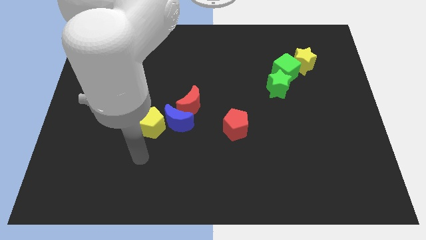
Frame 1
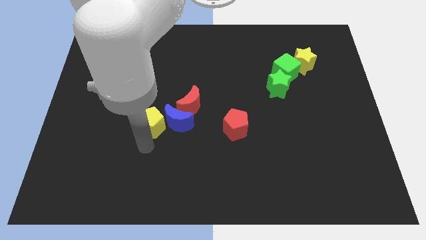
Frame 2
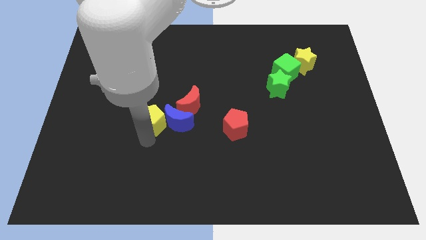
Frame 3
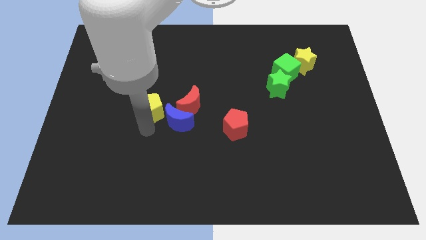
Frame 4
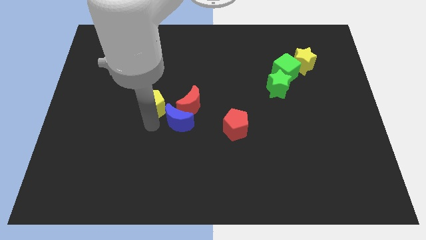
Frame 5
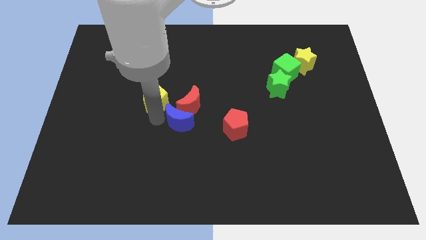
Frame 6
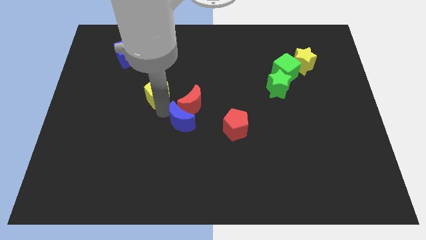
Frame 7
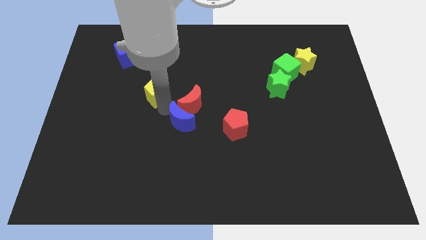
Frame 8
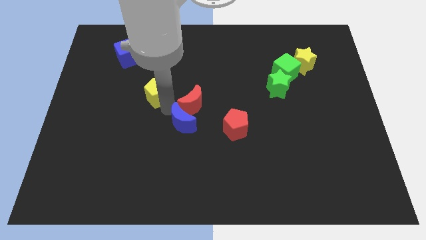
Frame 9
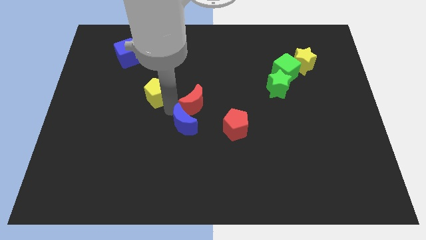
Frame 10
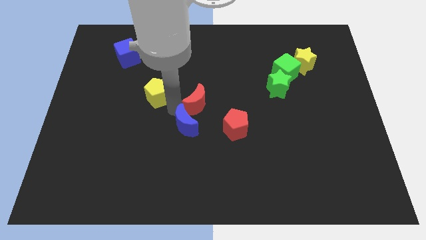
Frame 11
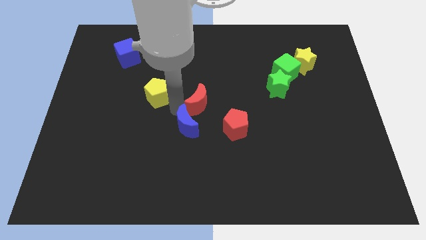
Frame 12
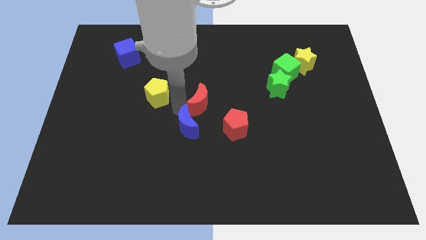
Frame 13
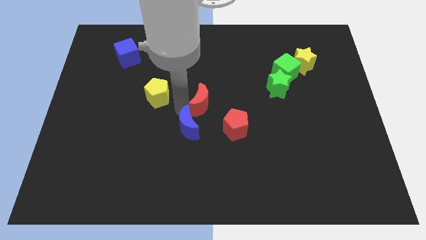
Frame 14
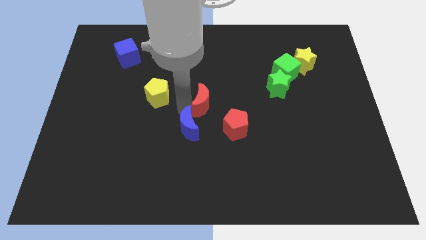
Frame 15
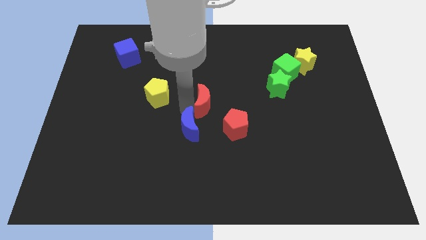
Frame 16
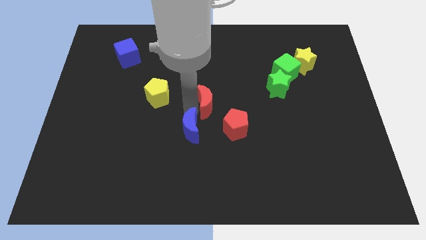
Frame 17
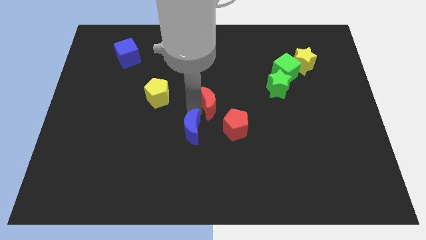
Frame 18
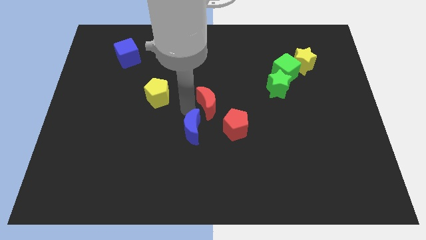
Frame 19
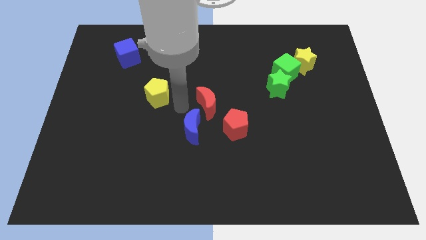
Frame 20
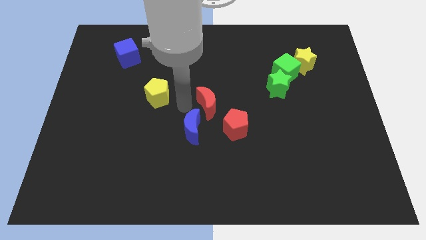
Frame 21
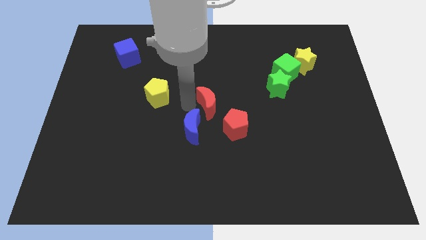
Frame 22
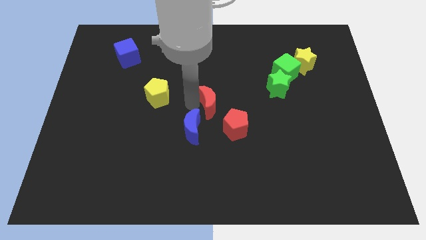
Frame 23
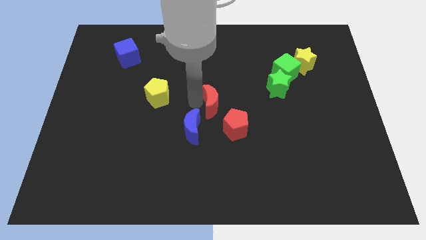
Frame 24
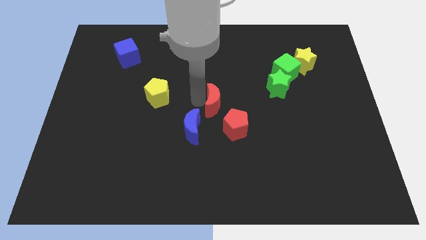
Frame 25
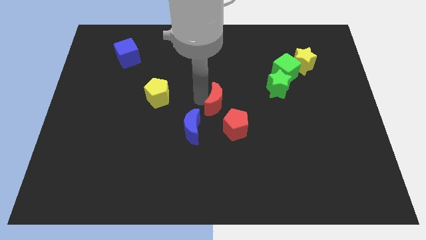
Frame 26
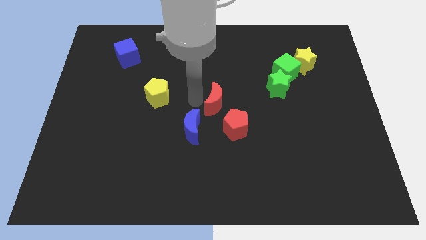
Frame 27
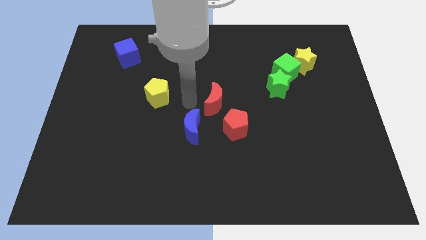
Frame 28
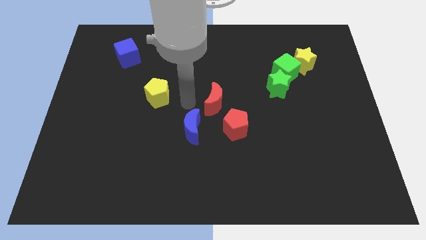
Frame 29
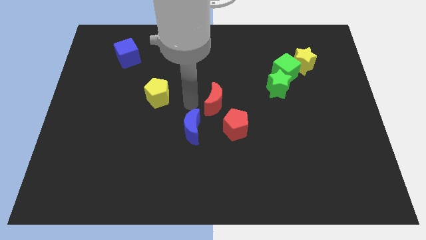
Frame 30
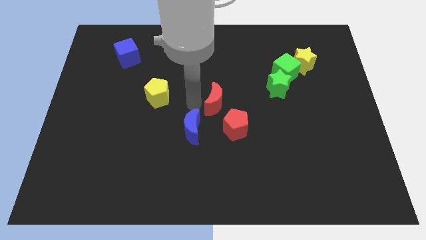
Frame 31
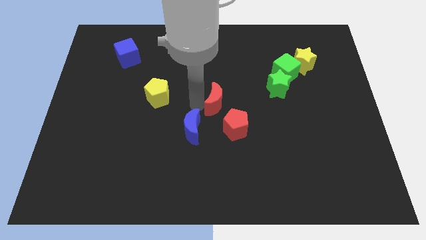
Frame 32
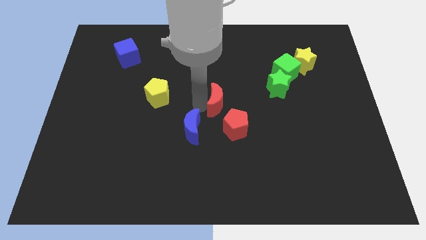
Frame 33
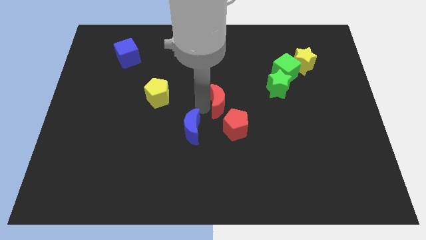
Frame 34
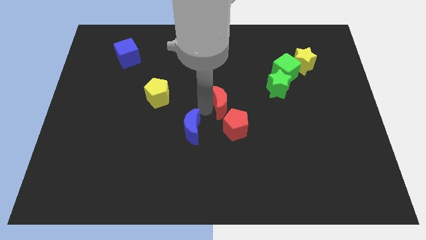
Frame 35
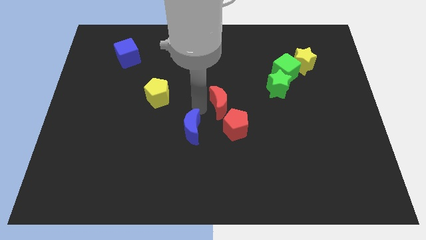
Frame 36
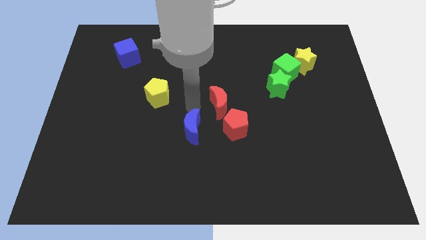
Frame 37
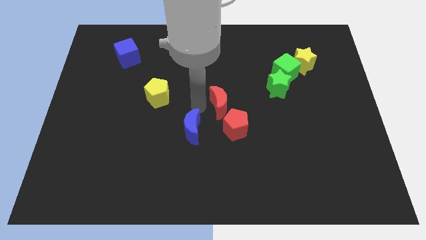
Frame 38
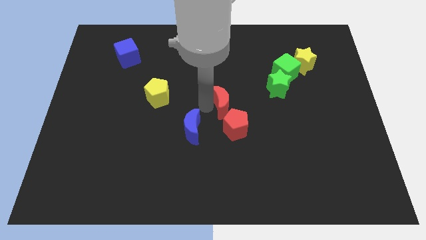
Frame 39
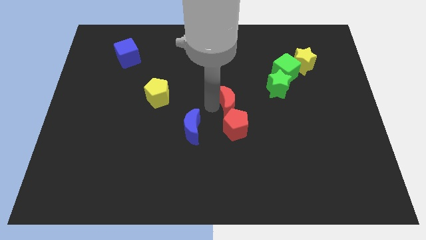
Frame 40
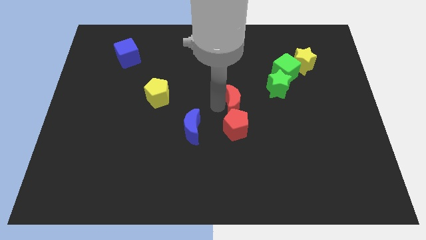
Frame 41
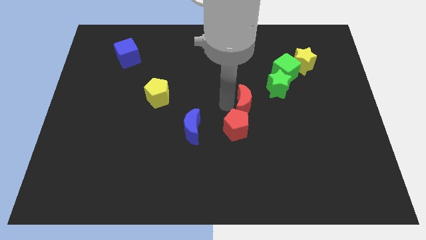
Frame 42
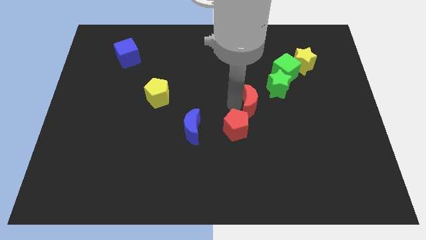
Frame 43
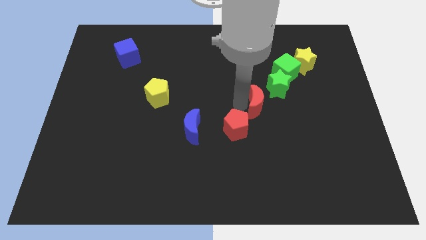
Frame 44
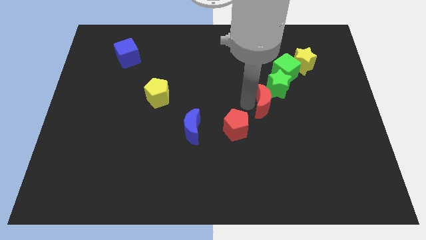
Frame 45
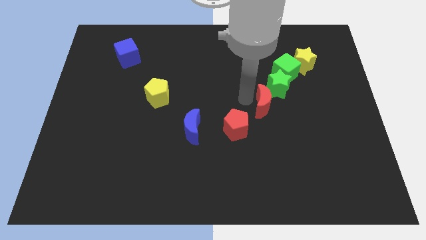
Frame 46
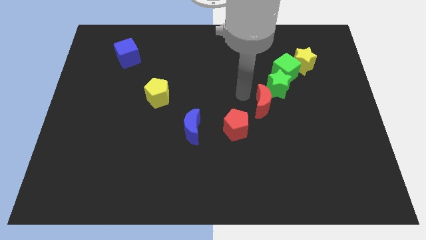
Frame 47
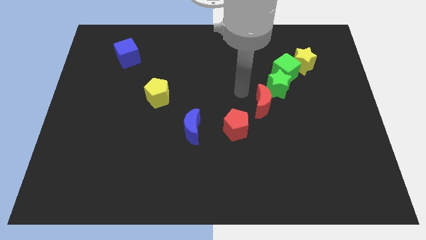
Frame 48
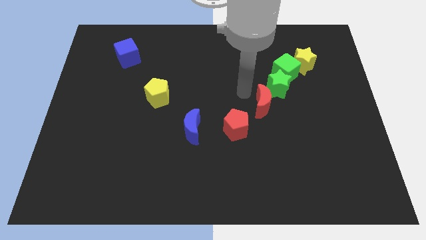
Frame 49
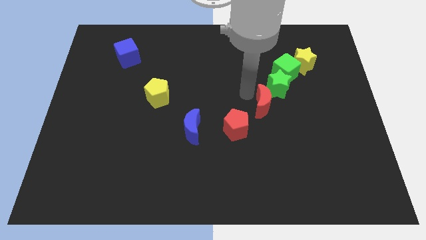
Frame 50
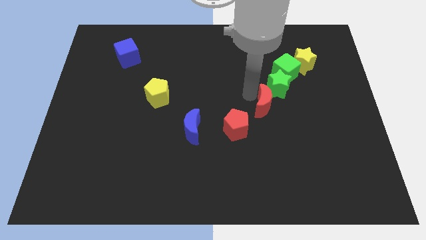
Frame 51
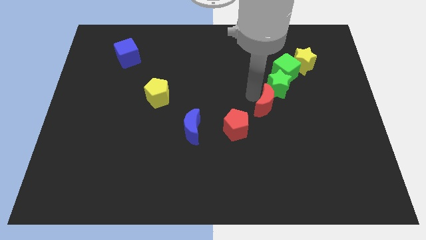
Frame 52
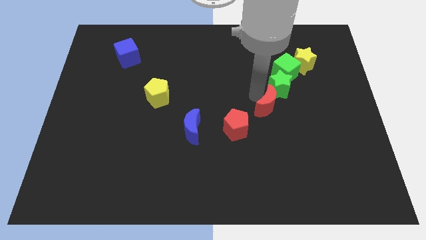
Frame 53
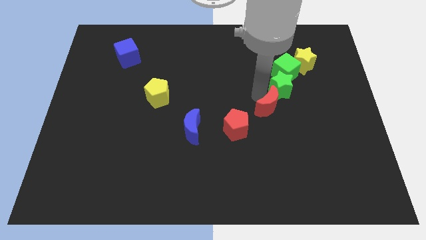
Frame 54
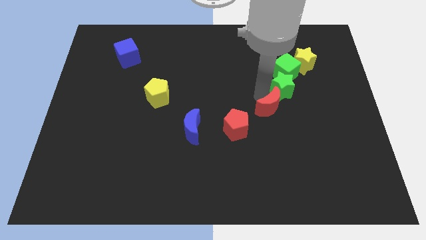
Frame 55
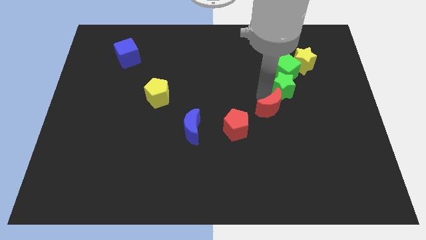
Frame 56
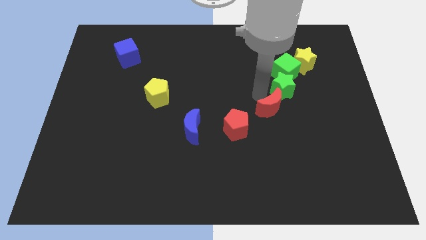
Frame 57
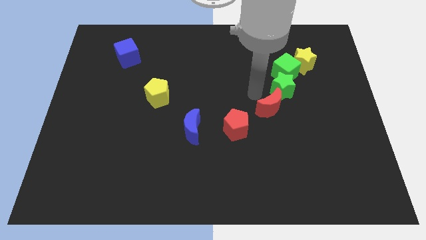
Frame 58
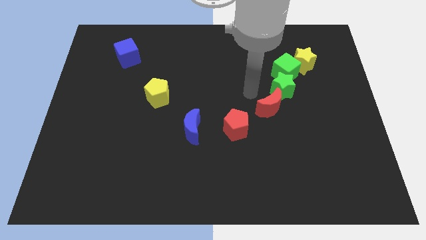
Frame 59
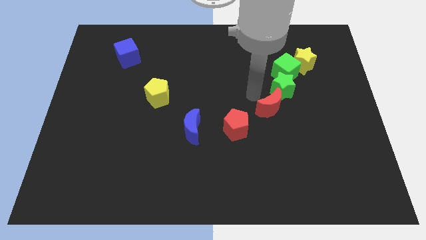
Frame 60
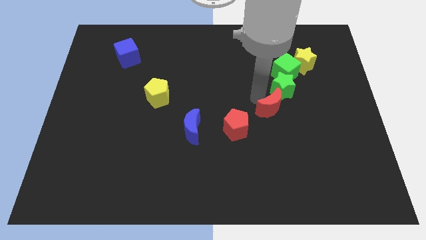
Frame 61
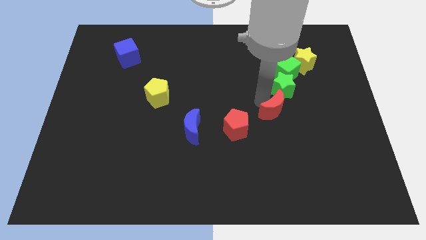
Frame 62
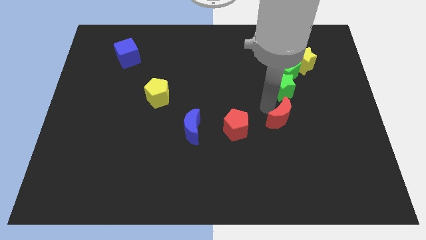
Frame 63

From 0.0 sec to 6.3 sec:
move the red moon to the right

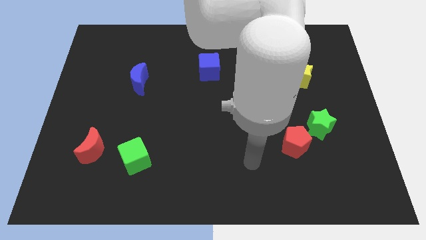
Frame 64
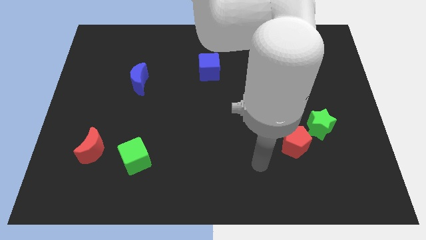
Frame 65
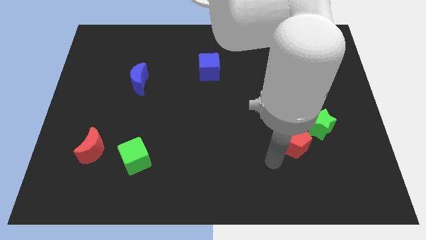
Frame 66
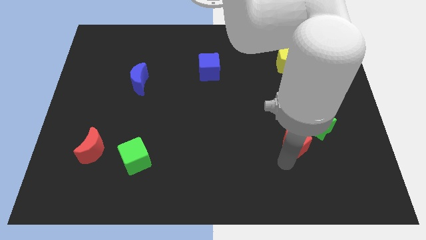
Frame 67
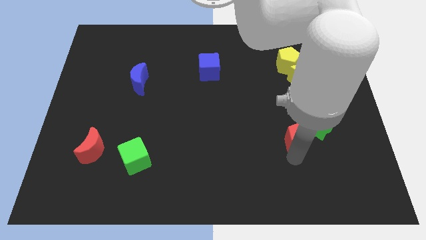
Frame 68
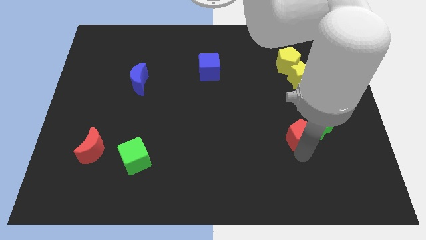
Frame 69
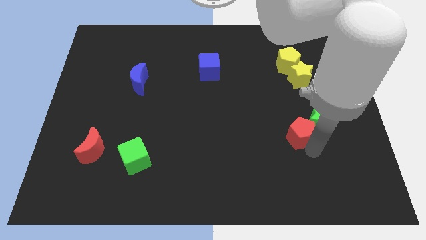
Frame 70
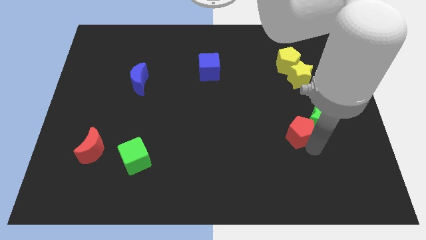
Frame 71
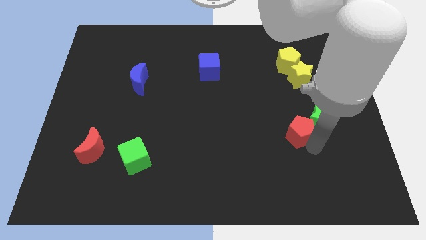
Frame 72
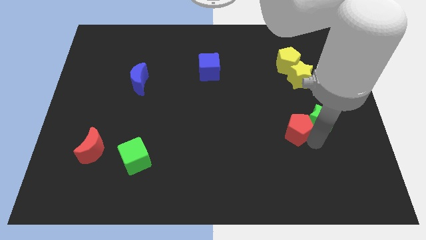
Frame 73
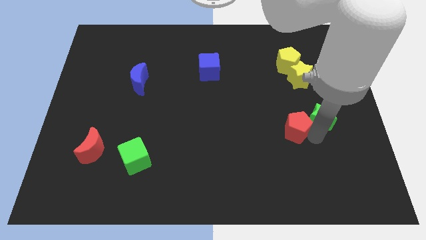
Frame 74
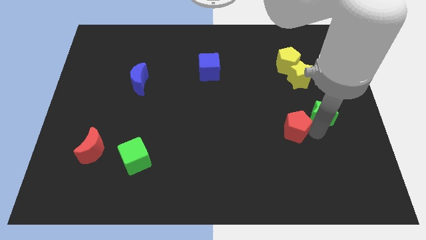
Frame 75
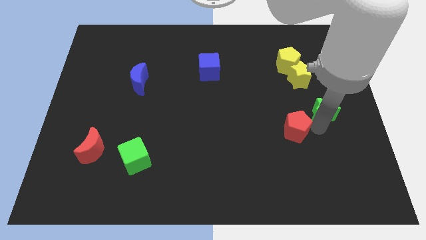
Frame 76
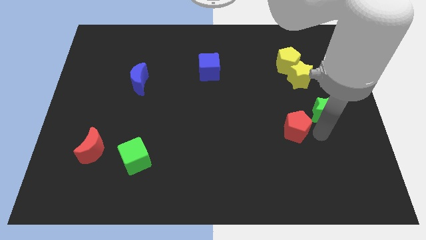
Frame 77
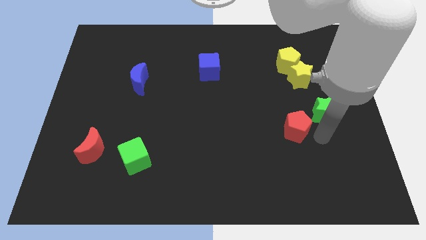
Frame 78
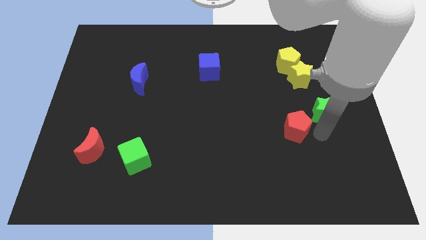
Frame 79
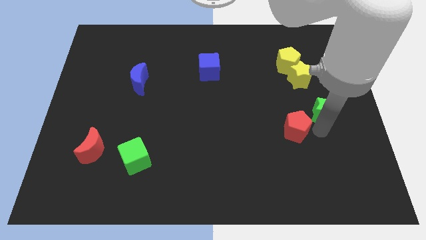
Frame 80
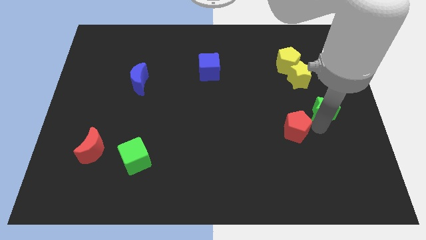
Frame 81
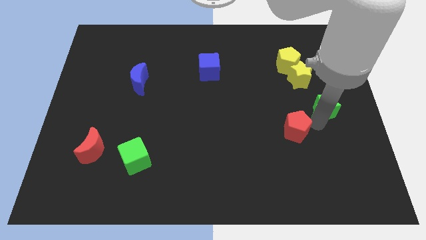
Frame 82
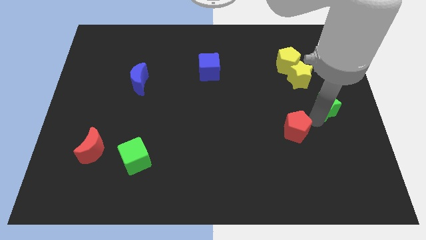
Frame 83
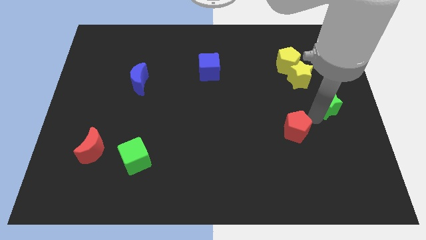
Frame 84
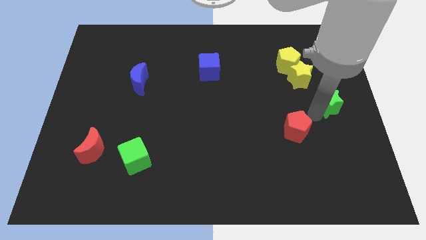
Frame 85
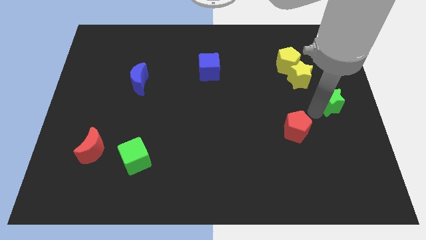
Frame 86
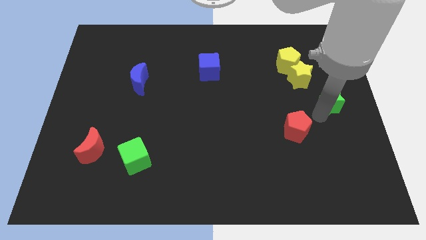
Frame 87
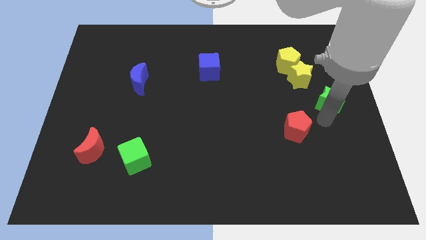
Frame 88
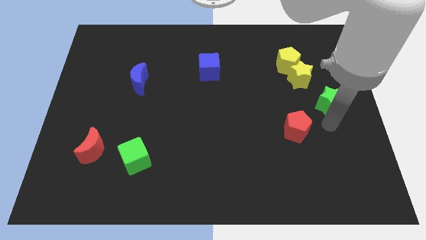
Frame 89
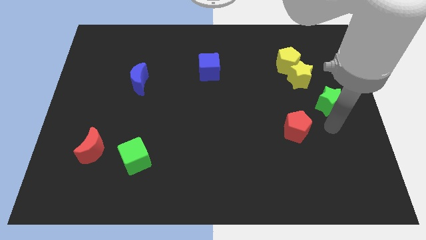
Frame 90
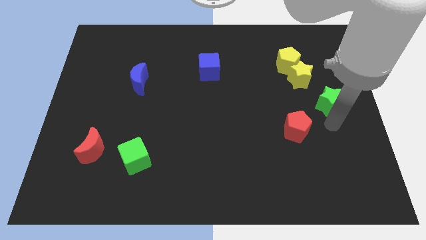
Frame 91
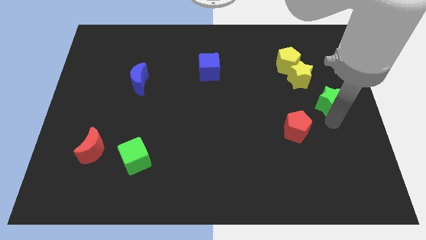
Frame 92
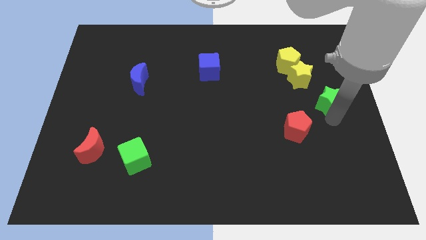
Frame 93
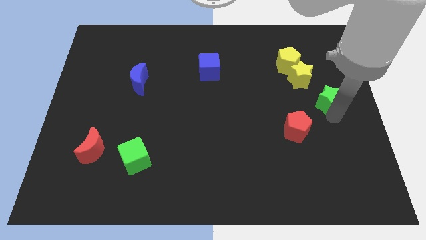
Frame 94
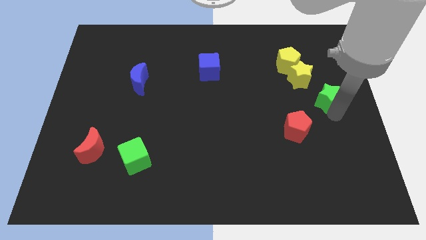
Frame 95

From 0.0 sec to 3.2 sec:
move the green star up somewhat
